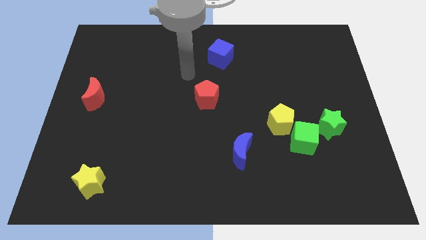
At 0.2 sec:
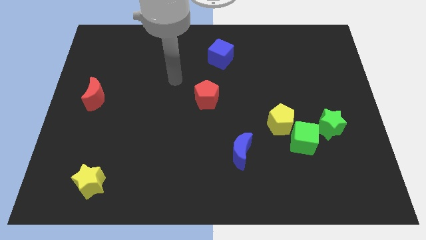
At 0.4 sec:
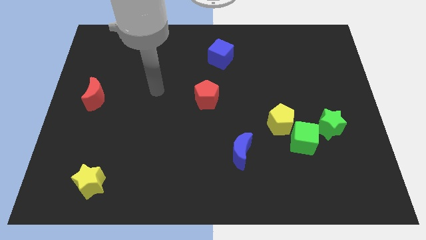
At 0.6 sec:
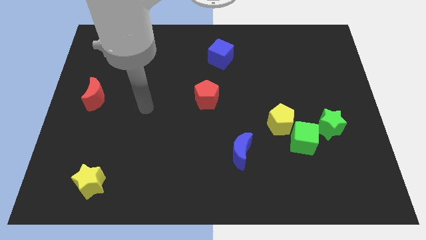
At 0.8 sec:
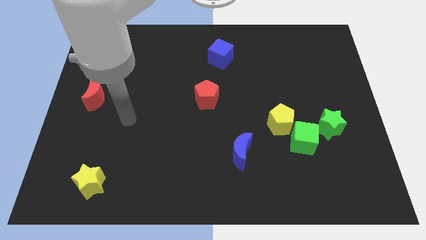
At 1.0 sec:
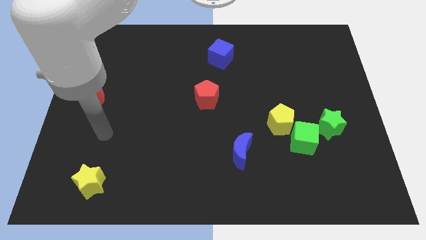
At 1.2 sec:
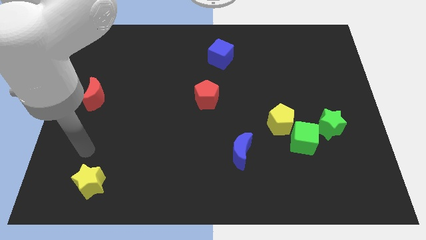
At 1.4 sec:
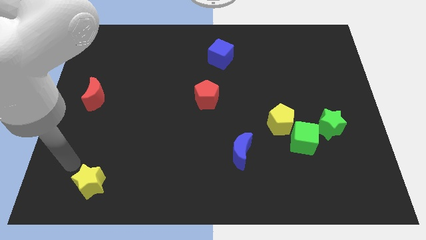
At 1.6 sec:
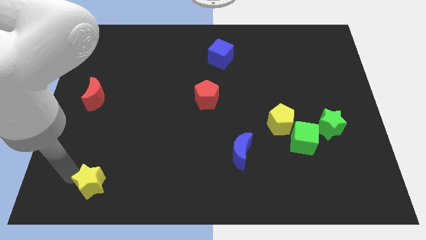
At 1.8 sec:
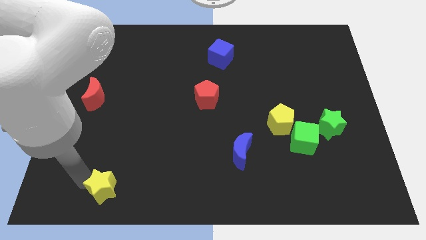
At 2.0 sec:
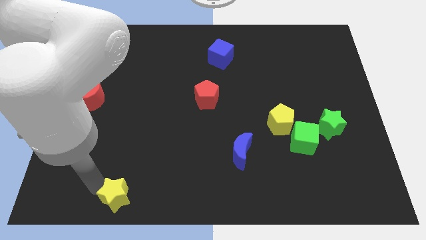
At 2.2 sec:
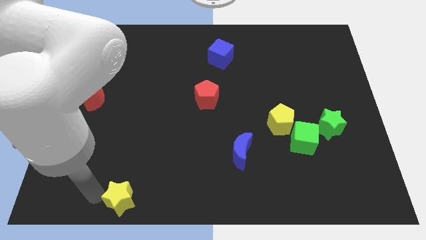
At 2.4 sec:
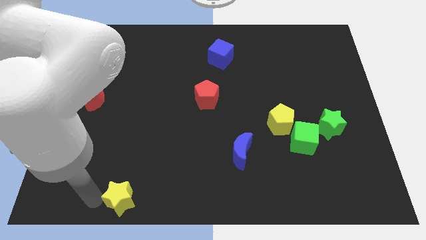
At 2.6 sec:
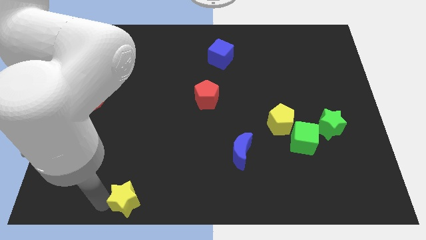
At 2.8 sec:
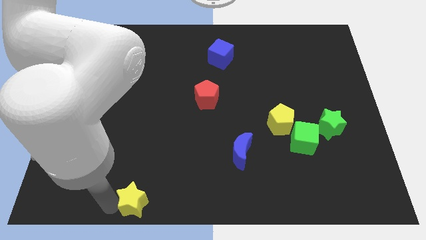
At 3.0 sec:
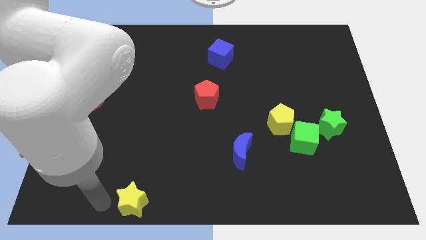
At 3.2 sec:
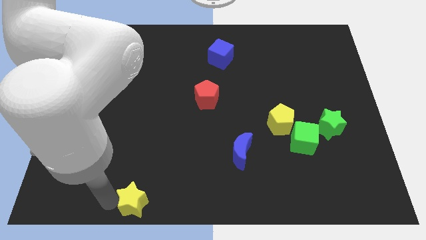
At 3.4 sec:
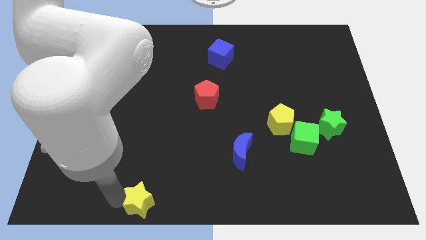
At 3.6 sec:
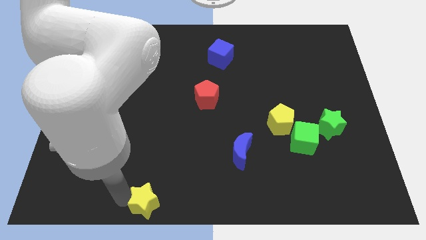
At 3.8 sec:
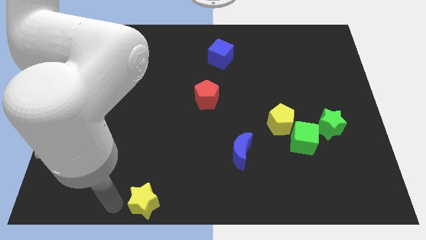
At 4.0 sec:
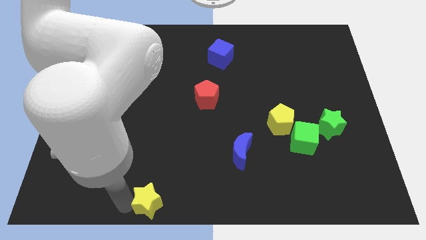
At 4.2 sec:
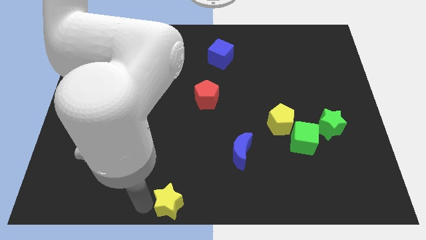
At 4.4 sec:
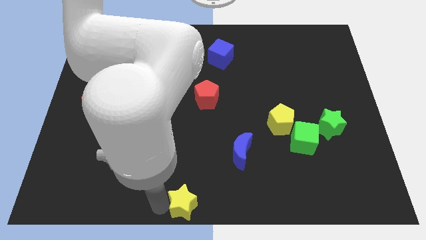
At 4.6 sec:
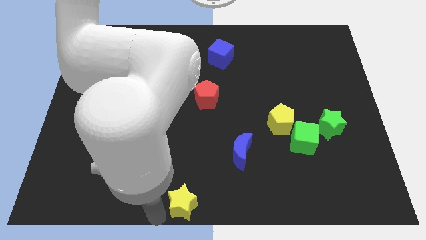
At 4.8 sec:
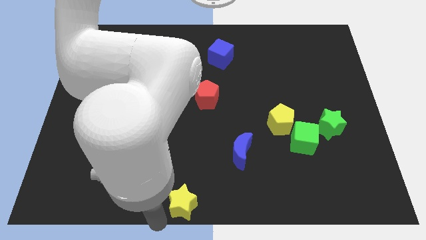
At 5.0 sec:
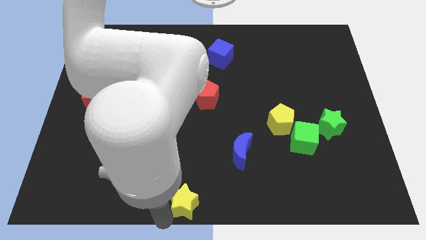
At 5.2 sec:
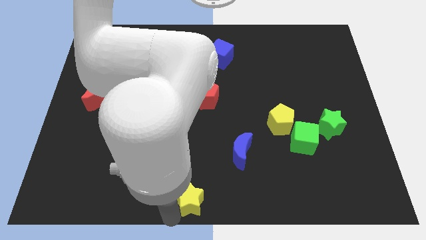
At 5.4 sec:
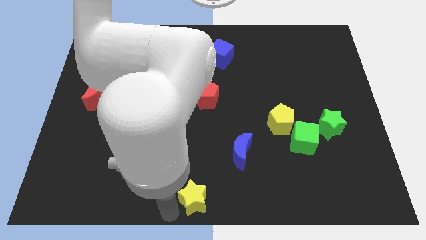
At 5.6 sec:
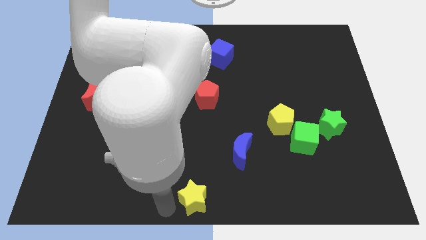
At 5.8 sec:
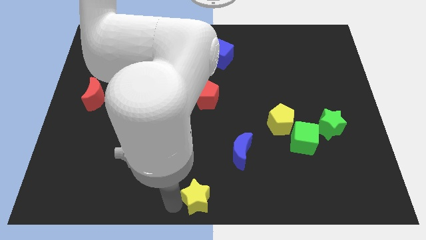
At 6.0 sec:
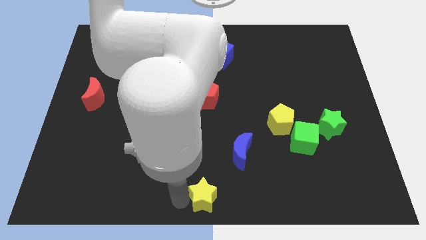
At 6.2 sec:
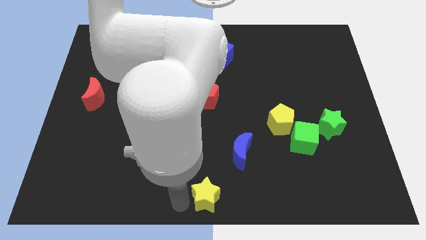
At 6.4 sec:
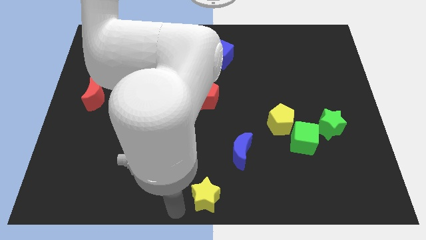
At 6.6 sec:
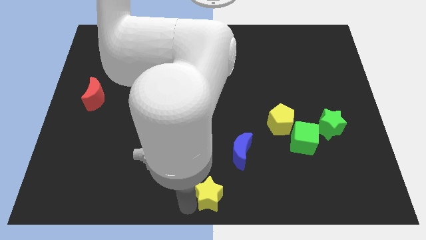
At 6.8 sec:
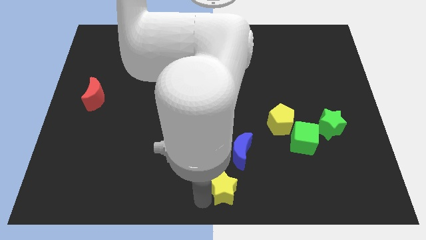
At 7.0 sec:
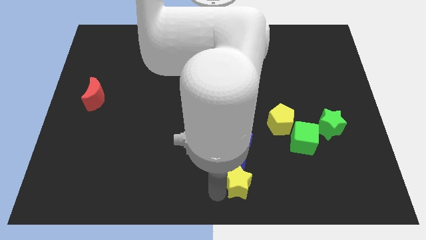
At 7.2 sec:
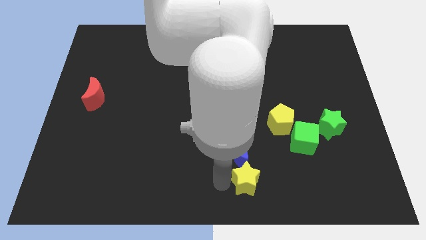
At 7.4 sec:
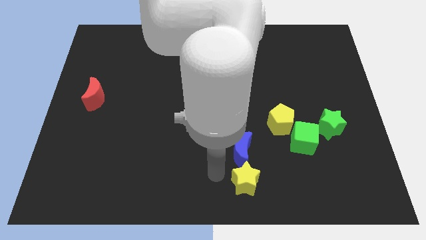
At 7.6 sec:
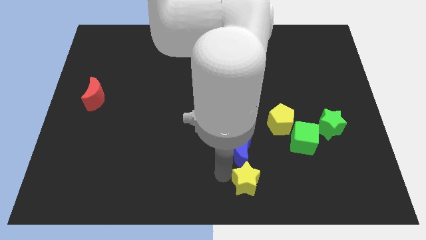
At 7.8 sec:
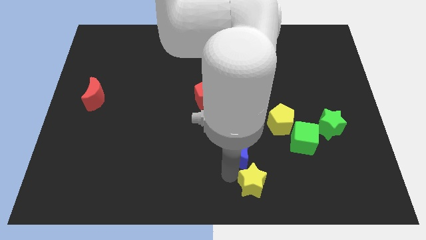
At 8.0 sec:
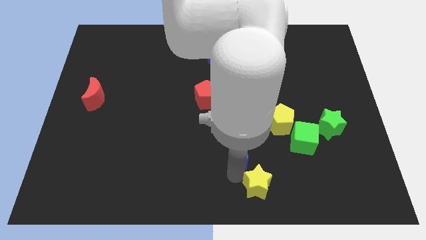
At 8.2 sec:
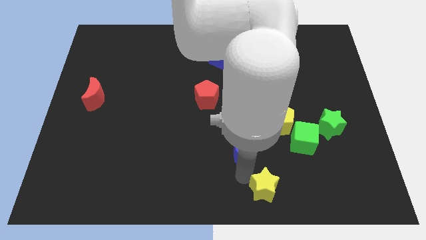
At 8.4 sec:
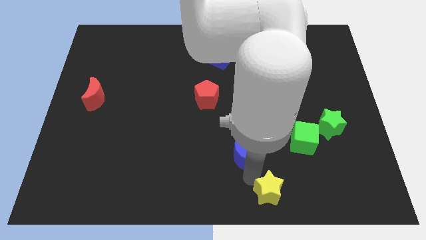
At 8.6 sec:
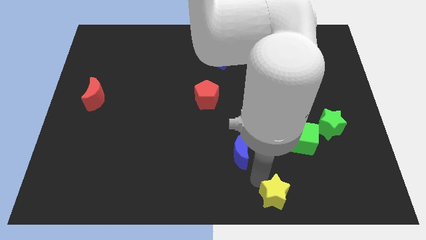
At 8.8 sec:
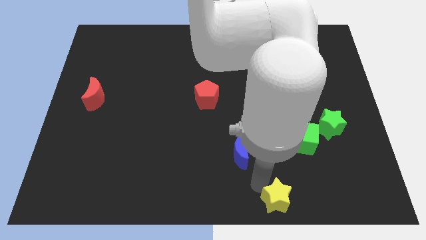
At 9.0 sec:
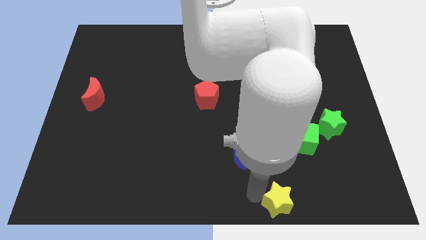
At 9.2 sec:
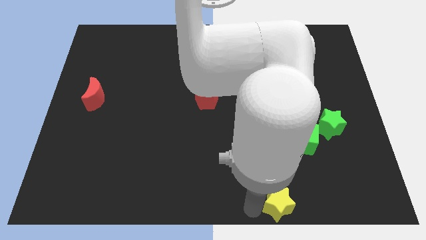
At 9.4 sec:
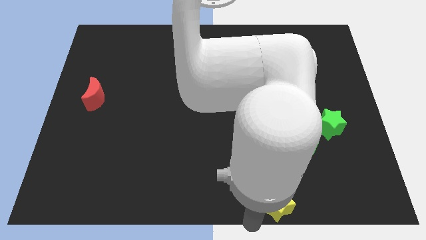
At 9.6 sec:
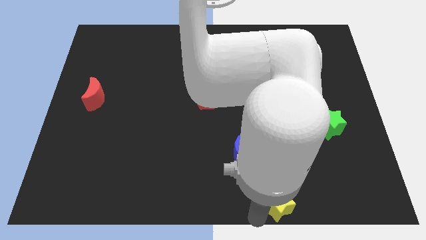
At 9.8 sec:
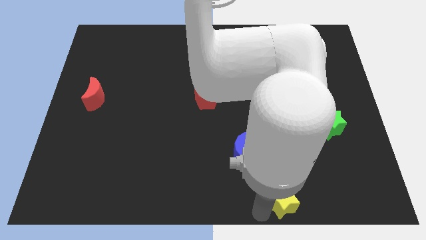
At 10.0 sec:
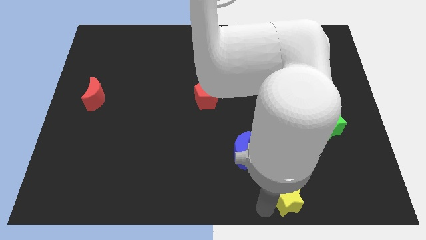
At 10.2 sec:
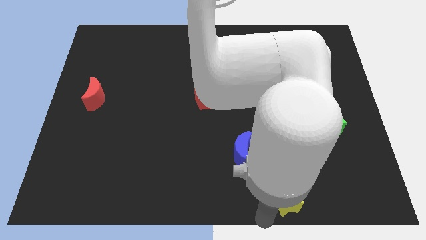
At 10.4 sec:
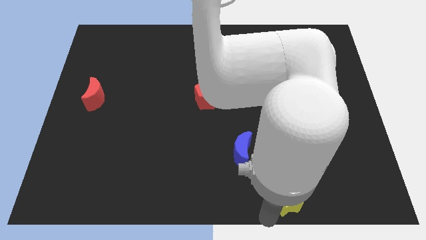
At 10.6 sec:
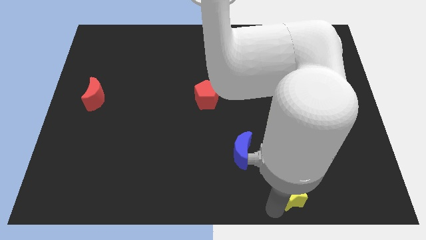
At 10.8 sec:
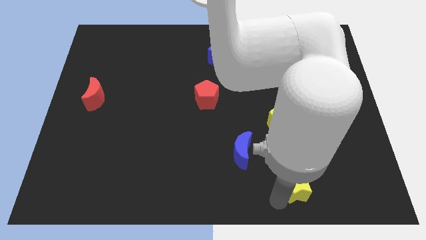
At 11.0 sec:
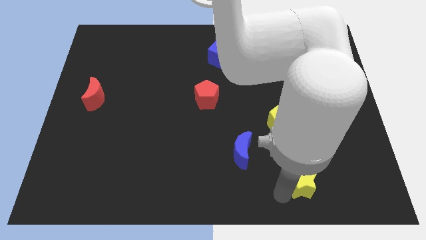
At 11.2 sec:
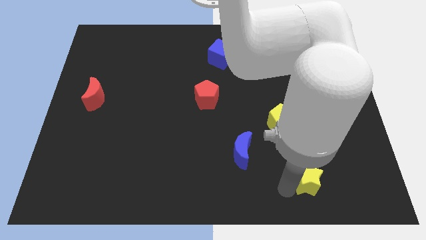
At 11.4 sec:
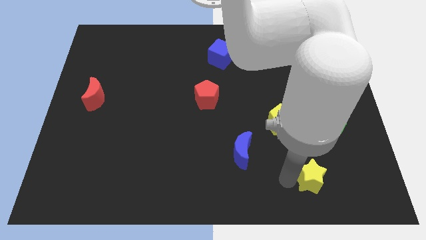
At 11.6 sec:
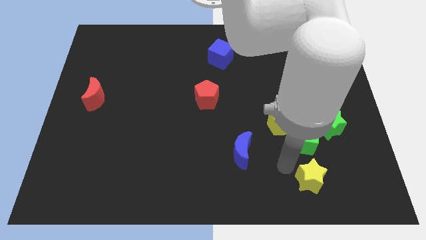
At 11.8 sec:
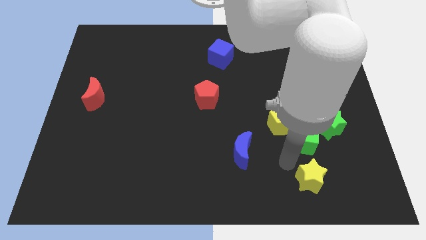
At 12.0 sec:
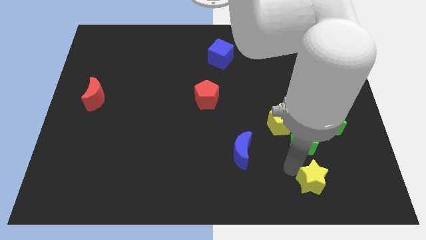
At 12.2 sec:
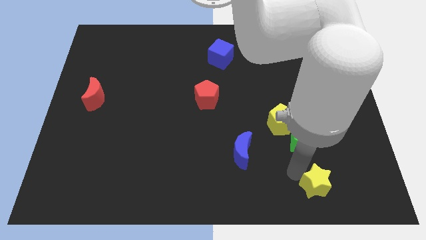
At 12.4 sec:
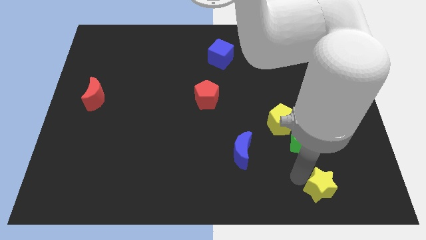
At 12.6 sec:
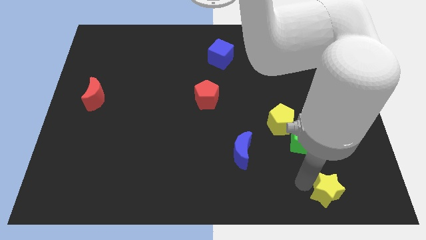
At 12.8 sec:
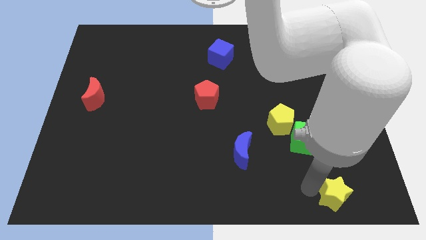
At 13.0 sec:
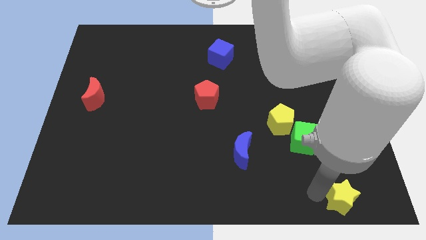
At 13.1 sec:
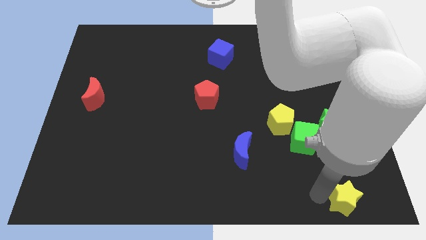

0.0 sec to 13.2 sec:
put the yellow star to the bottom right of the board
